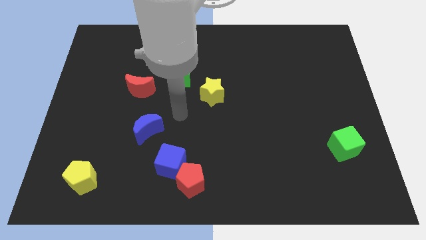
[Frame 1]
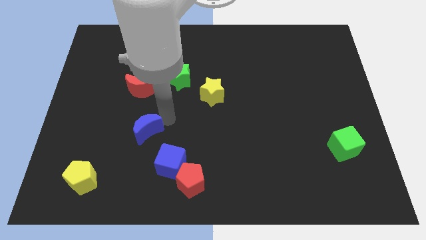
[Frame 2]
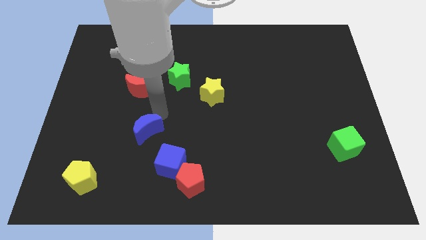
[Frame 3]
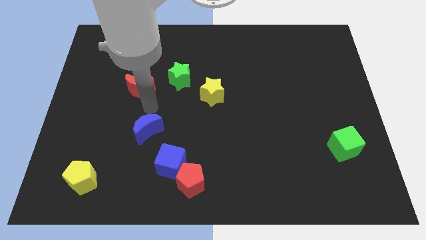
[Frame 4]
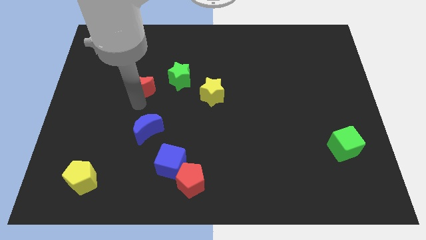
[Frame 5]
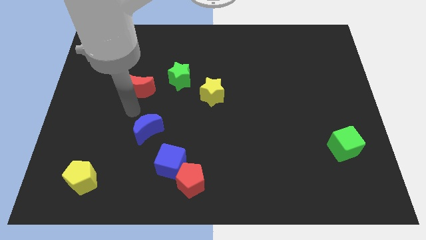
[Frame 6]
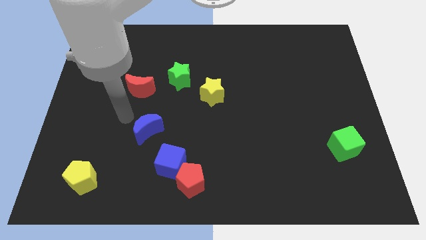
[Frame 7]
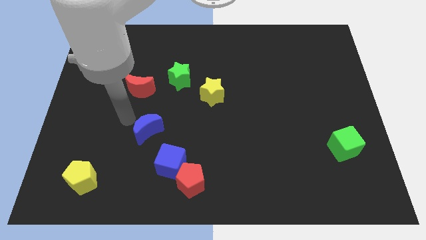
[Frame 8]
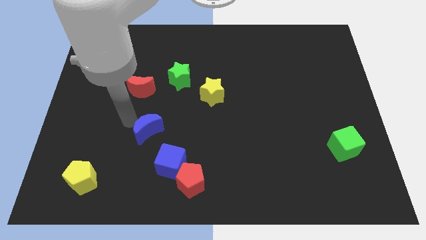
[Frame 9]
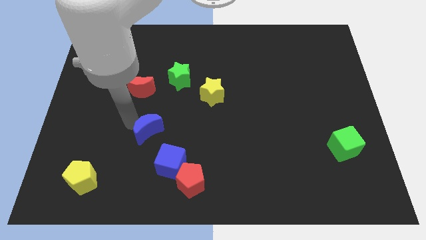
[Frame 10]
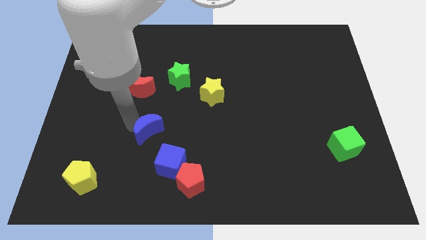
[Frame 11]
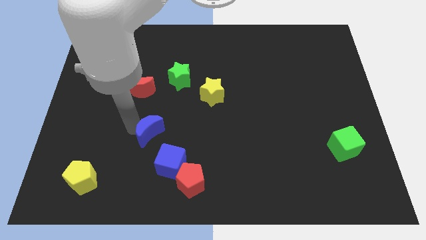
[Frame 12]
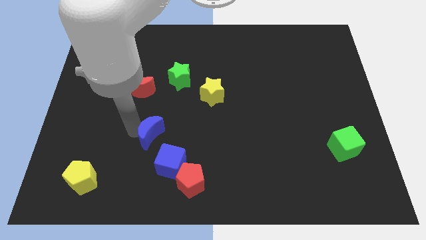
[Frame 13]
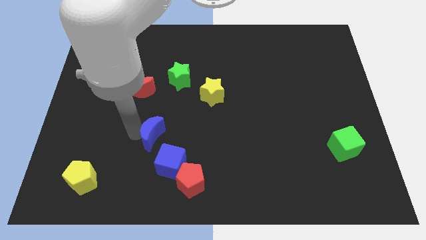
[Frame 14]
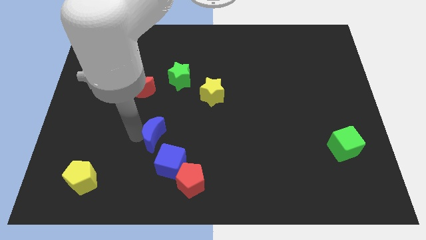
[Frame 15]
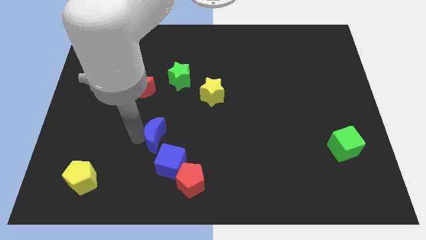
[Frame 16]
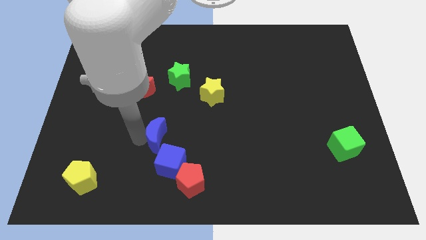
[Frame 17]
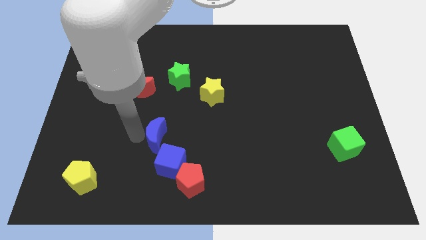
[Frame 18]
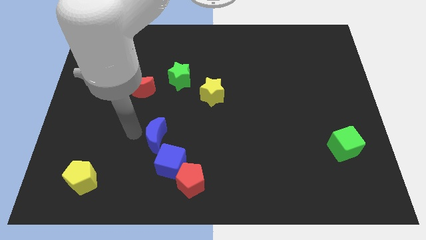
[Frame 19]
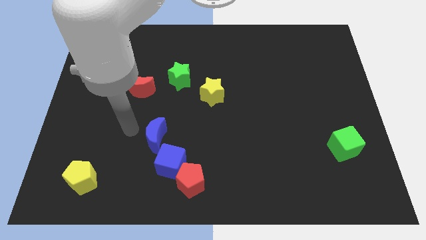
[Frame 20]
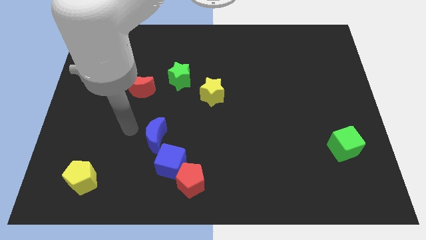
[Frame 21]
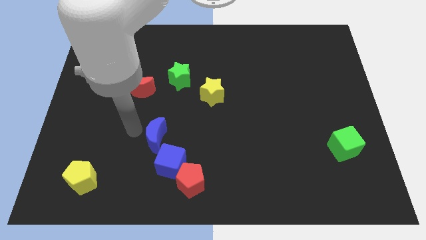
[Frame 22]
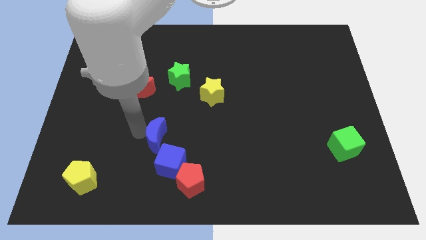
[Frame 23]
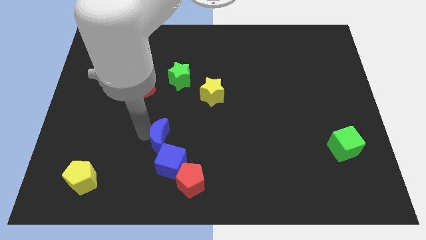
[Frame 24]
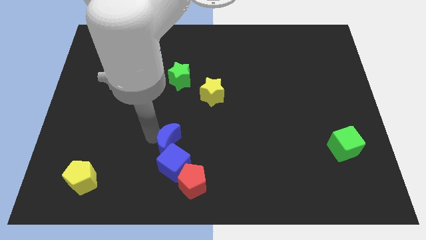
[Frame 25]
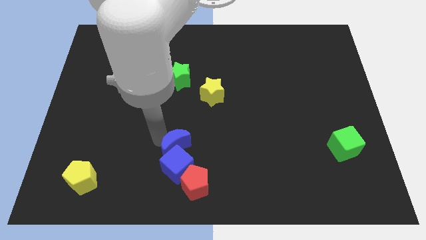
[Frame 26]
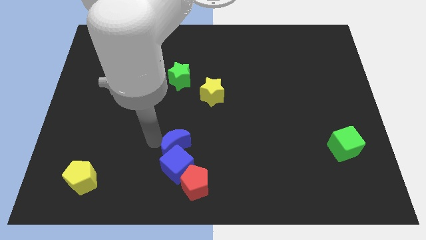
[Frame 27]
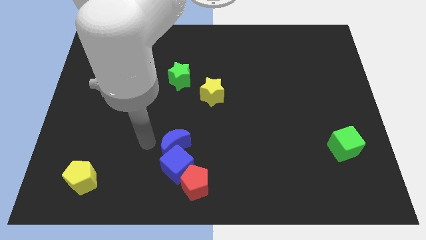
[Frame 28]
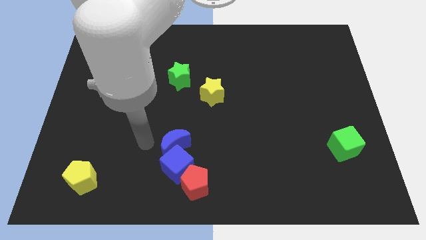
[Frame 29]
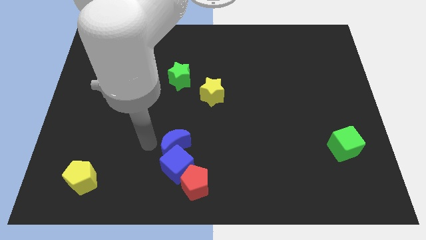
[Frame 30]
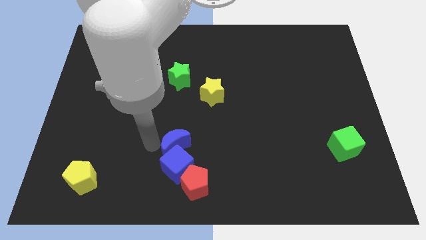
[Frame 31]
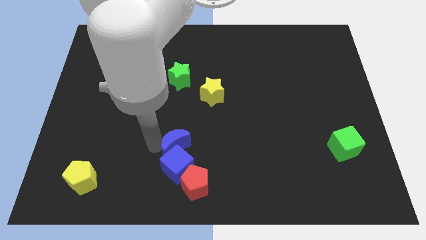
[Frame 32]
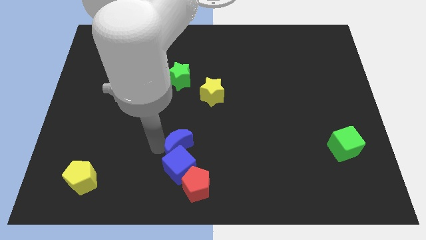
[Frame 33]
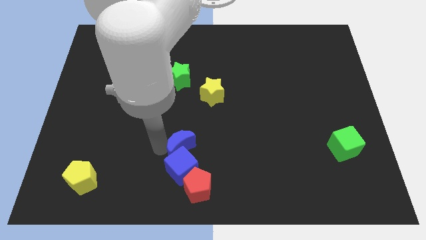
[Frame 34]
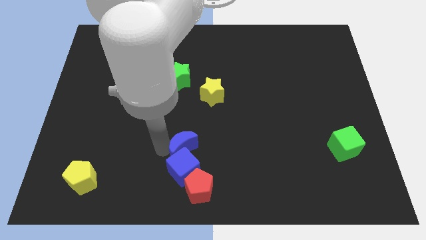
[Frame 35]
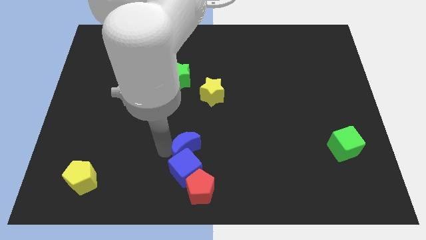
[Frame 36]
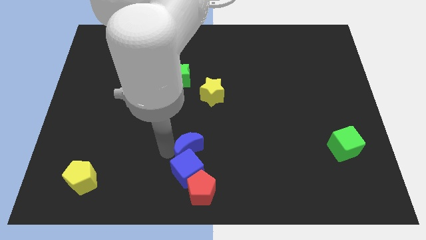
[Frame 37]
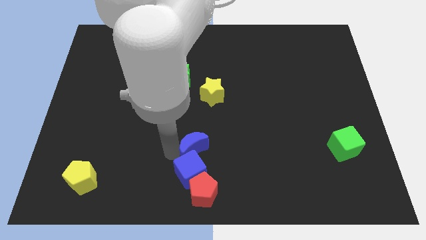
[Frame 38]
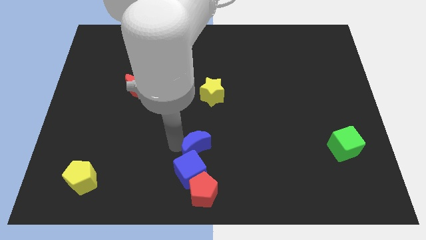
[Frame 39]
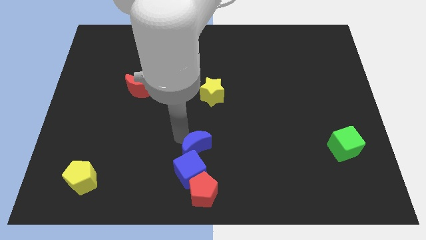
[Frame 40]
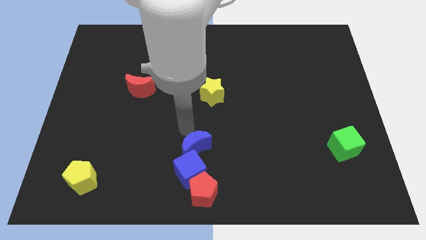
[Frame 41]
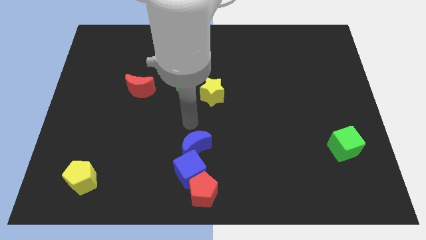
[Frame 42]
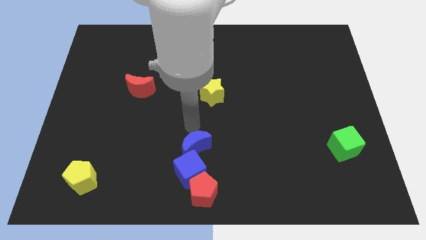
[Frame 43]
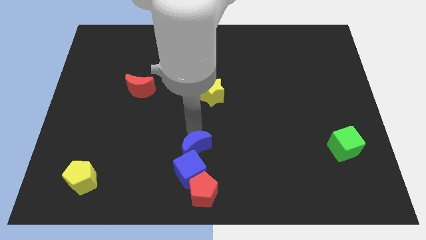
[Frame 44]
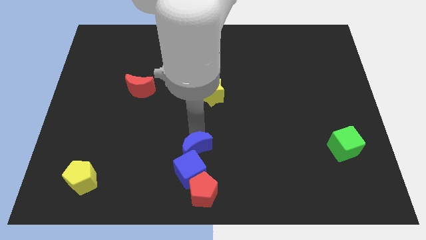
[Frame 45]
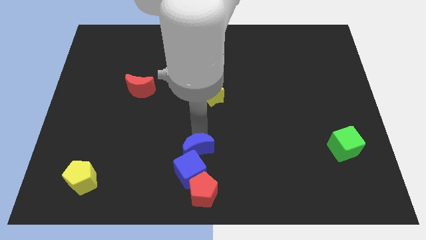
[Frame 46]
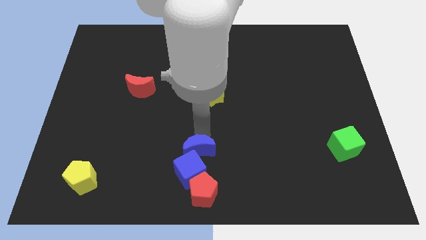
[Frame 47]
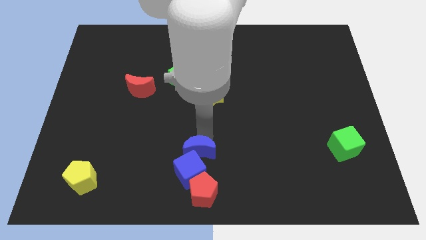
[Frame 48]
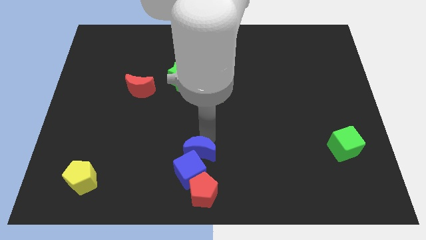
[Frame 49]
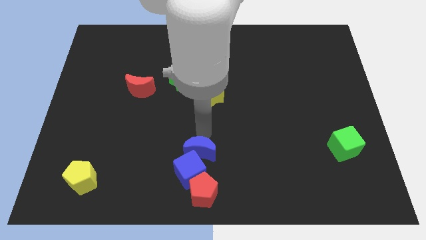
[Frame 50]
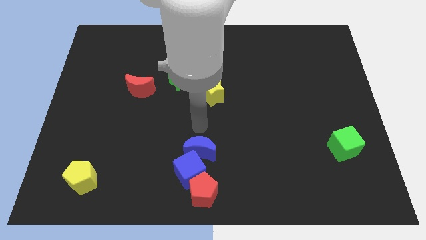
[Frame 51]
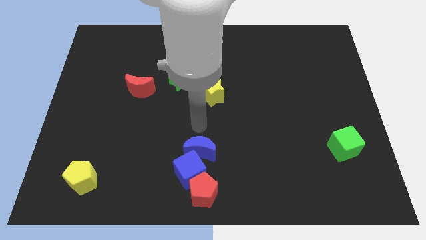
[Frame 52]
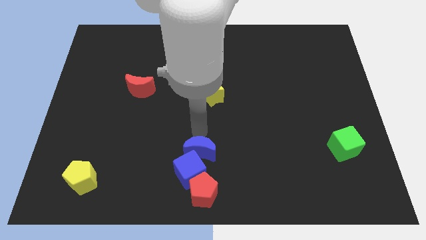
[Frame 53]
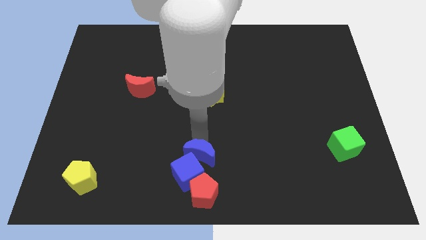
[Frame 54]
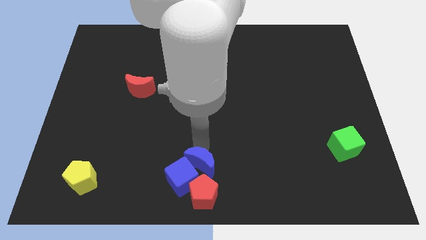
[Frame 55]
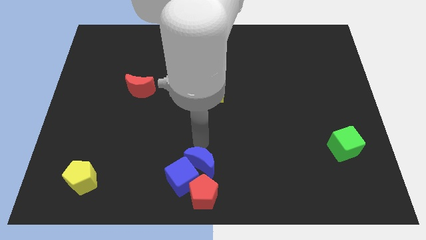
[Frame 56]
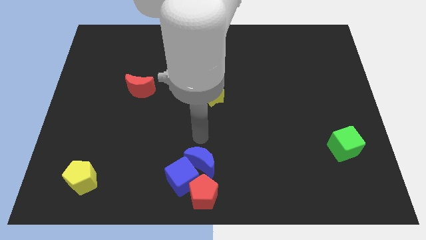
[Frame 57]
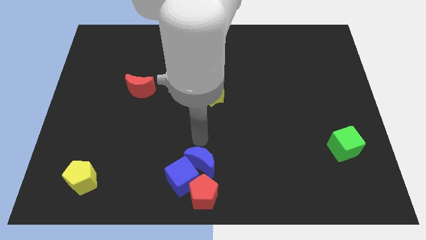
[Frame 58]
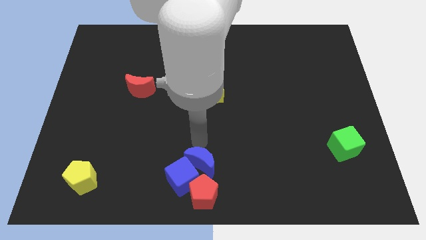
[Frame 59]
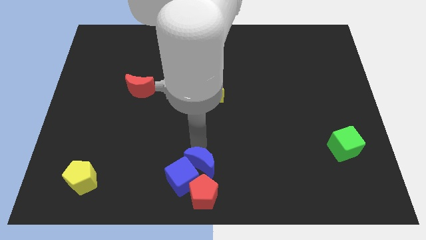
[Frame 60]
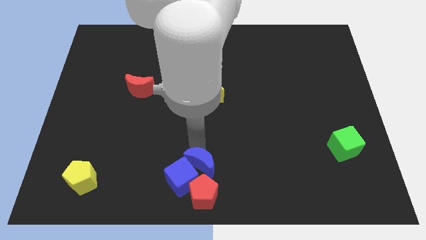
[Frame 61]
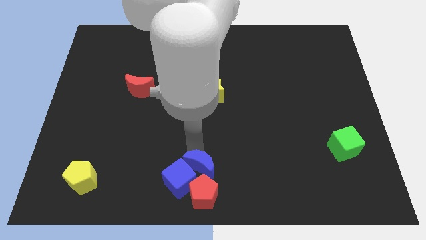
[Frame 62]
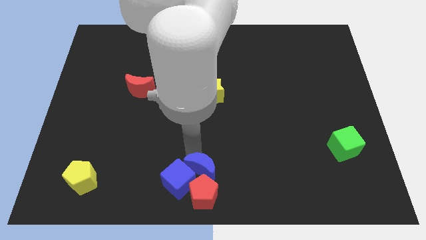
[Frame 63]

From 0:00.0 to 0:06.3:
put the blue moon next to the red pentagon

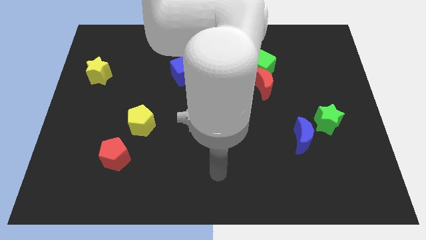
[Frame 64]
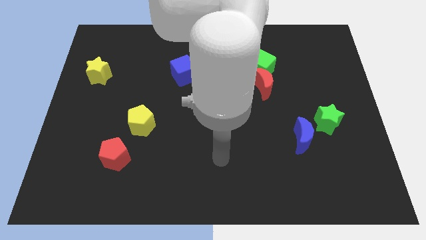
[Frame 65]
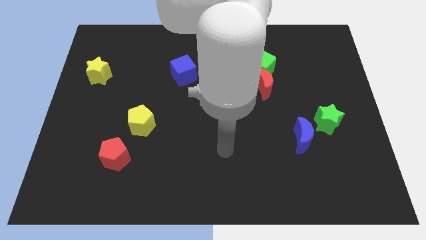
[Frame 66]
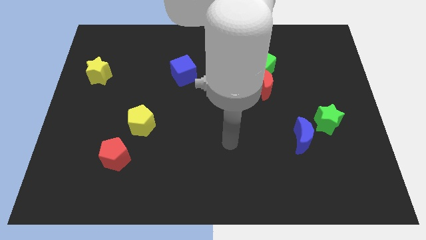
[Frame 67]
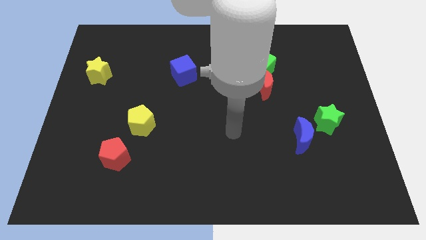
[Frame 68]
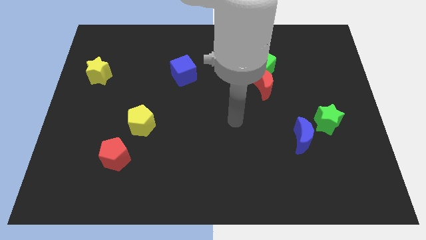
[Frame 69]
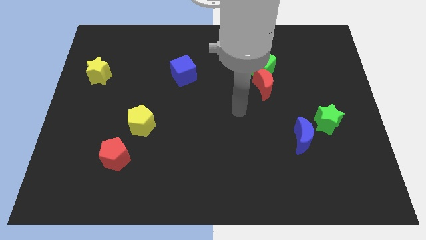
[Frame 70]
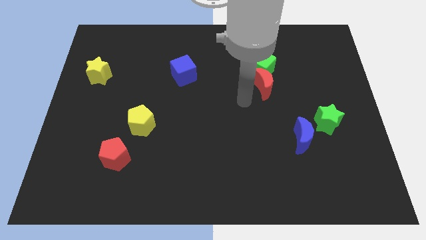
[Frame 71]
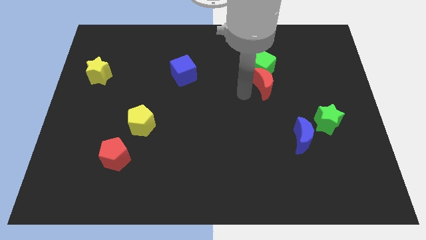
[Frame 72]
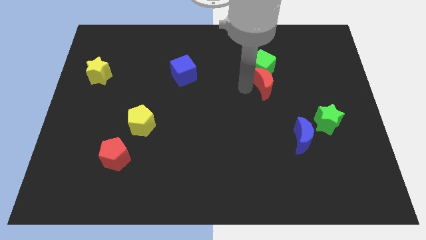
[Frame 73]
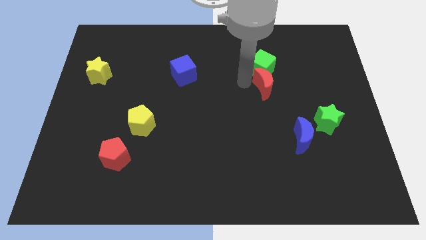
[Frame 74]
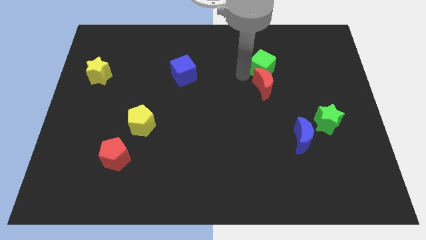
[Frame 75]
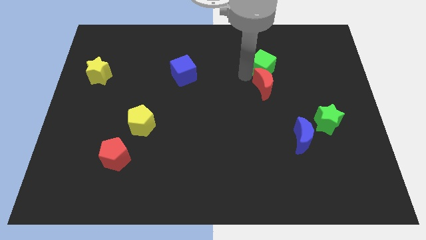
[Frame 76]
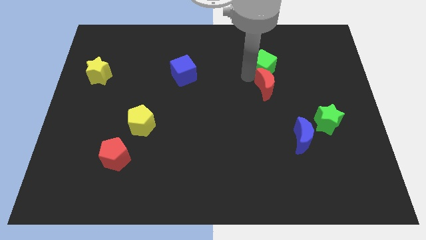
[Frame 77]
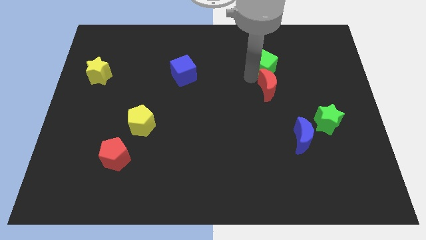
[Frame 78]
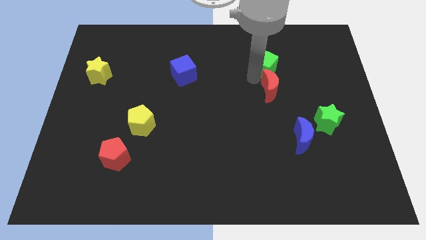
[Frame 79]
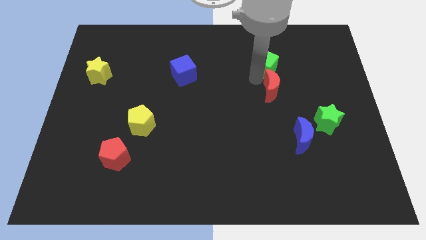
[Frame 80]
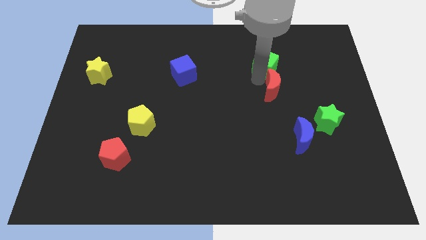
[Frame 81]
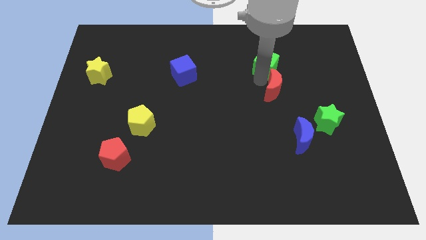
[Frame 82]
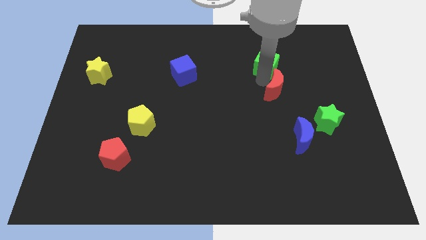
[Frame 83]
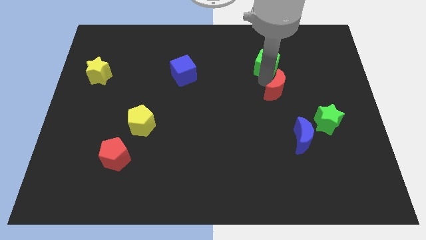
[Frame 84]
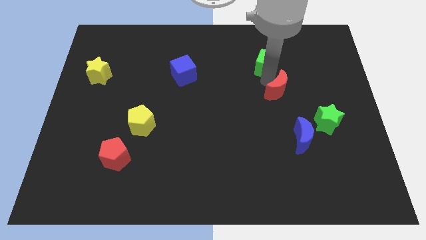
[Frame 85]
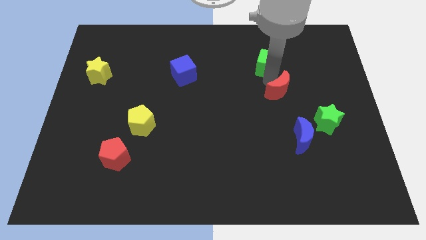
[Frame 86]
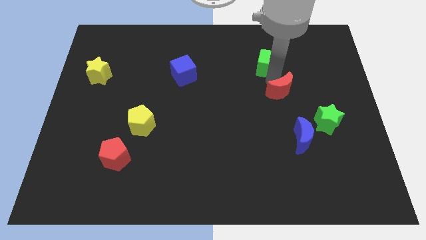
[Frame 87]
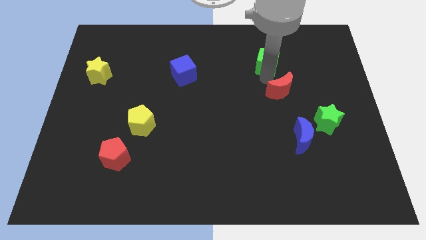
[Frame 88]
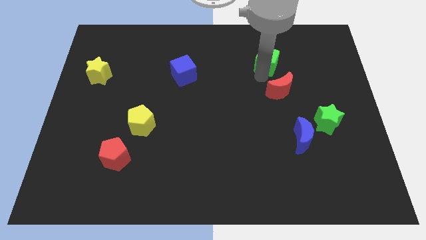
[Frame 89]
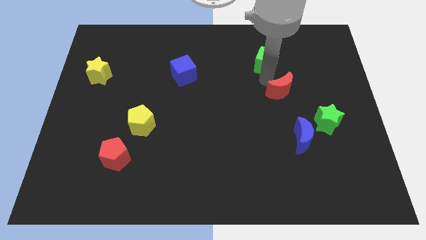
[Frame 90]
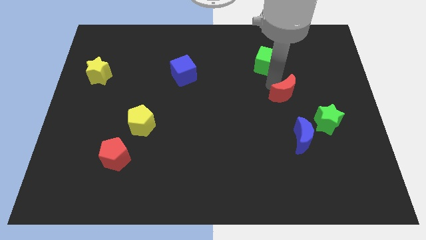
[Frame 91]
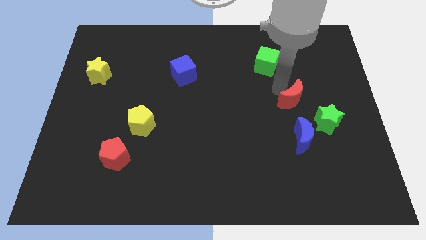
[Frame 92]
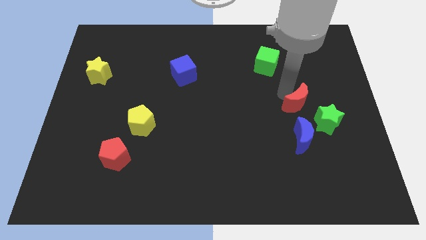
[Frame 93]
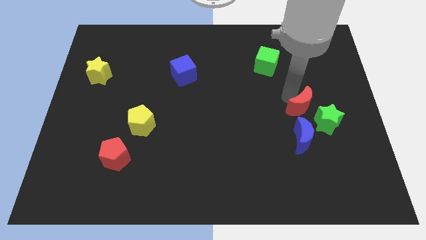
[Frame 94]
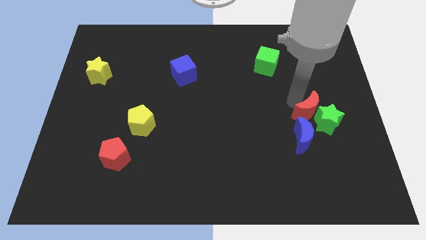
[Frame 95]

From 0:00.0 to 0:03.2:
put the red moon next to the green star
